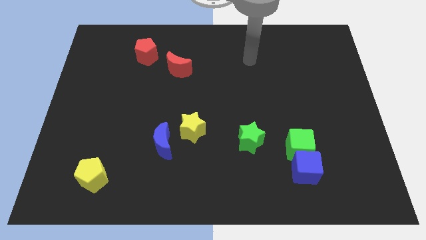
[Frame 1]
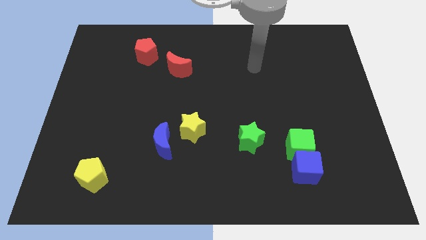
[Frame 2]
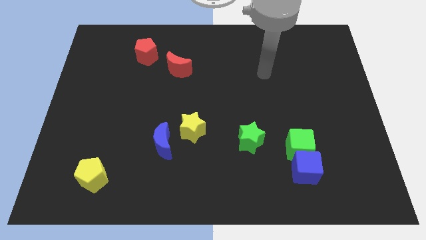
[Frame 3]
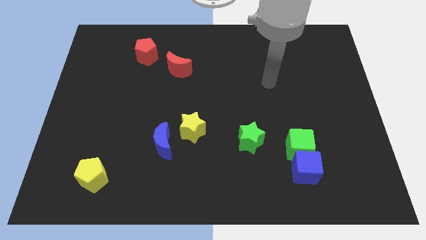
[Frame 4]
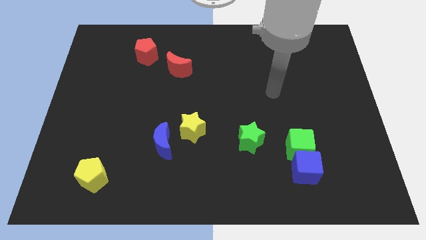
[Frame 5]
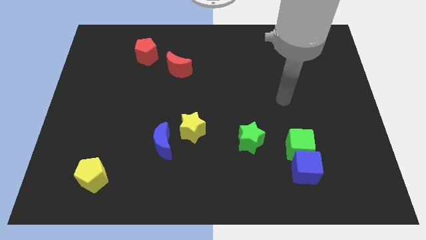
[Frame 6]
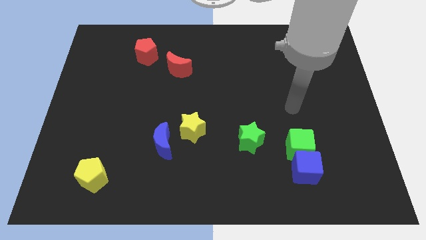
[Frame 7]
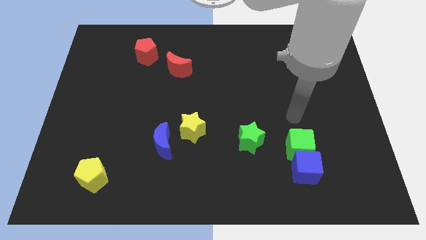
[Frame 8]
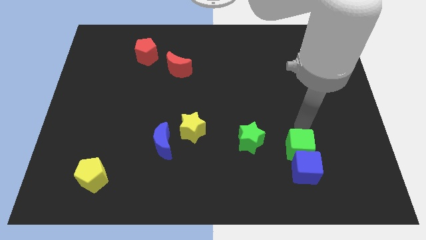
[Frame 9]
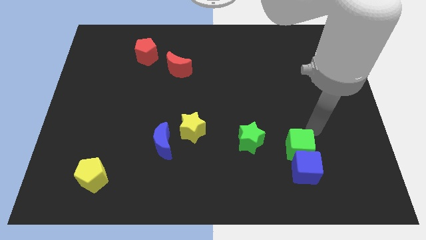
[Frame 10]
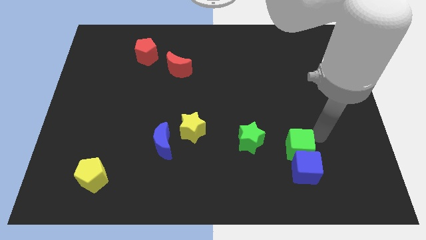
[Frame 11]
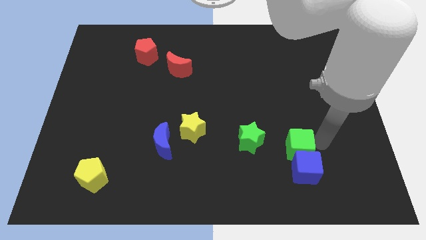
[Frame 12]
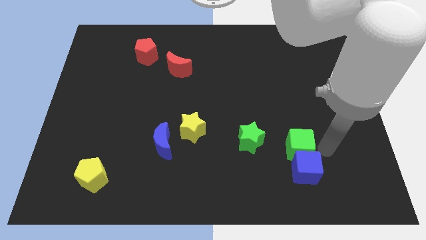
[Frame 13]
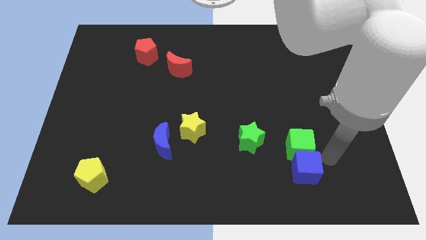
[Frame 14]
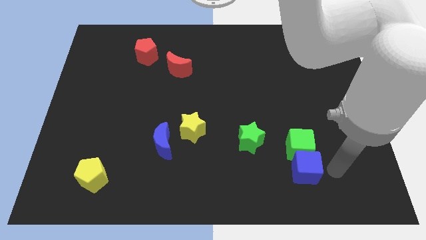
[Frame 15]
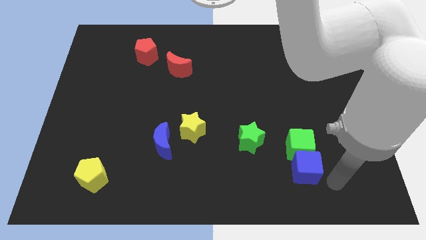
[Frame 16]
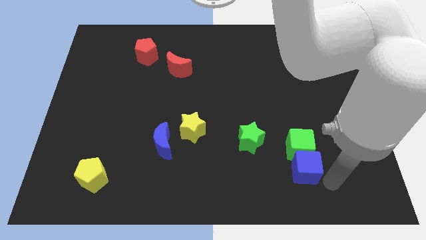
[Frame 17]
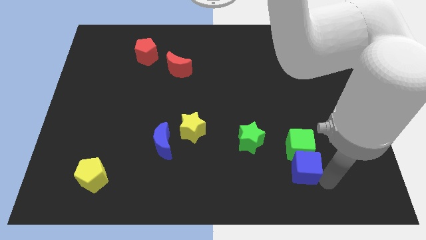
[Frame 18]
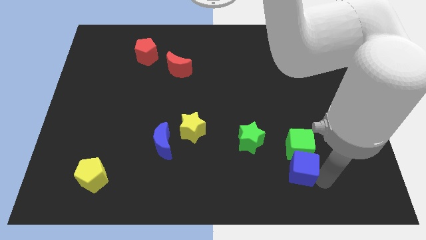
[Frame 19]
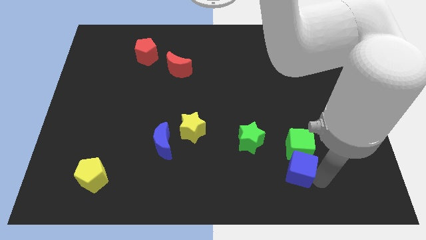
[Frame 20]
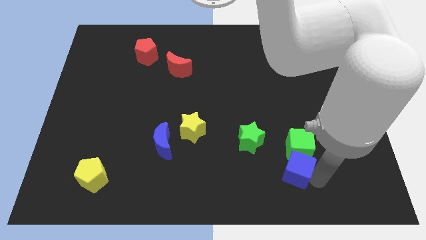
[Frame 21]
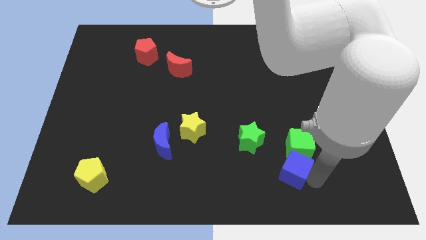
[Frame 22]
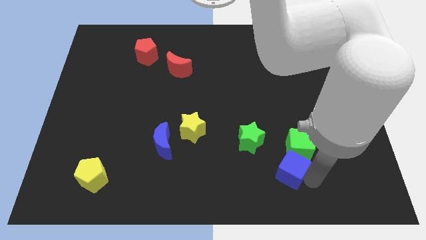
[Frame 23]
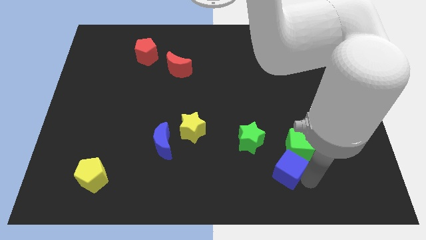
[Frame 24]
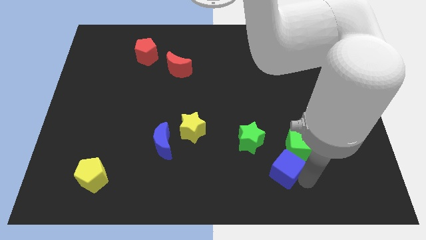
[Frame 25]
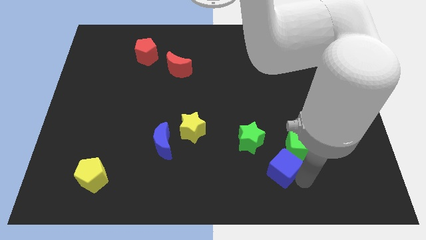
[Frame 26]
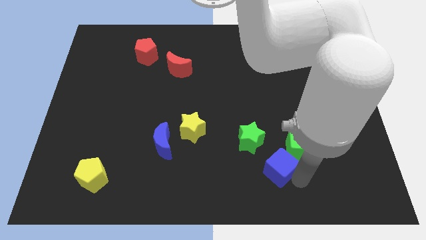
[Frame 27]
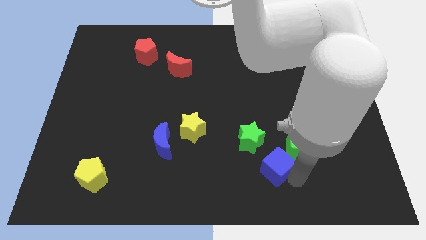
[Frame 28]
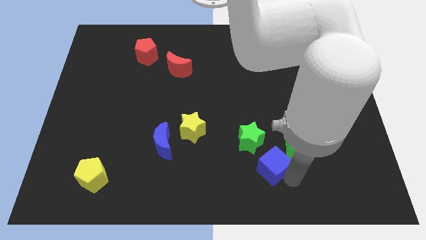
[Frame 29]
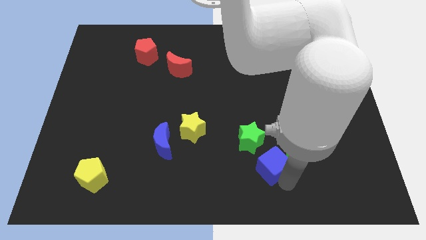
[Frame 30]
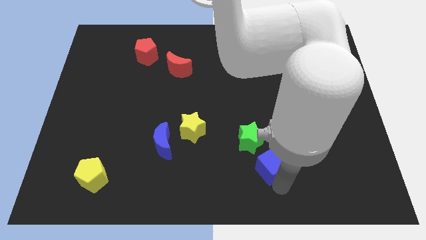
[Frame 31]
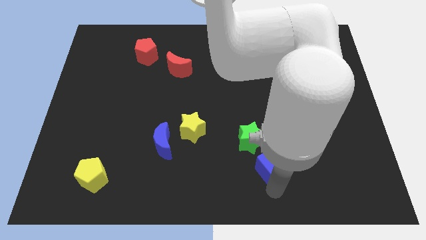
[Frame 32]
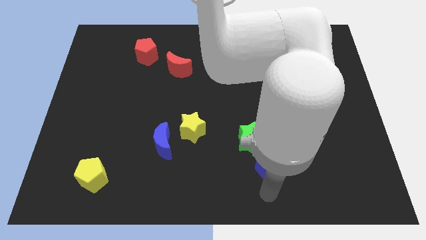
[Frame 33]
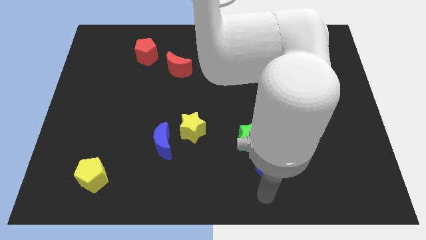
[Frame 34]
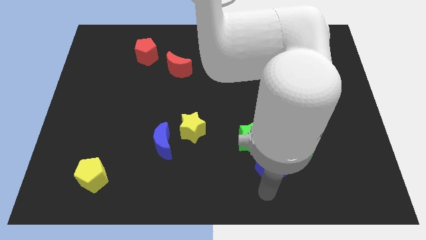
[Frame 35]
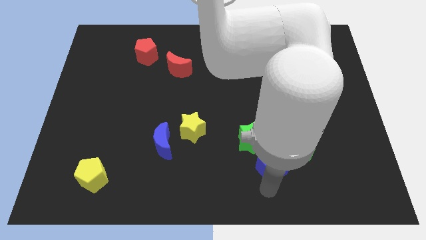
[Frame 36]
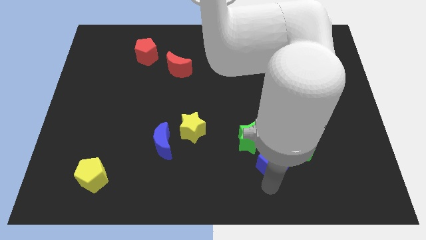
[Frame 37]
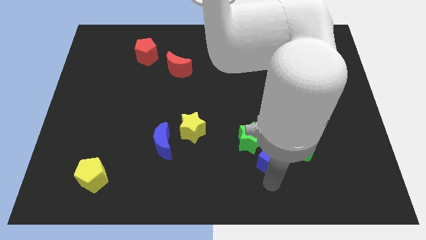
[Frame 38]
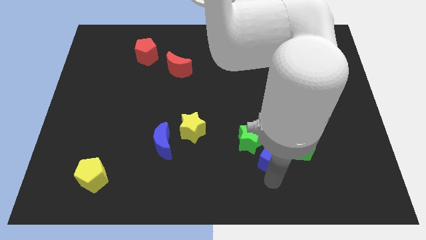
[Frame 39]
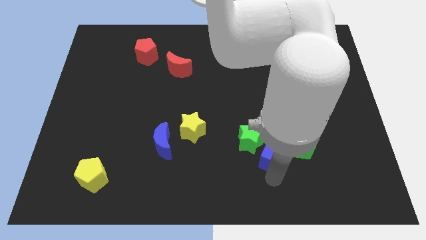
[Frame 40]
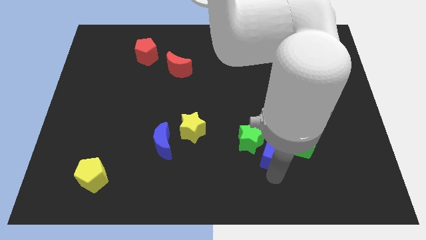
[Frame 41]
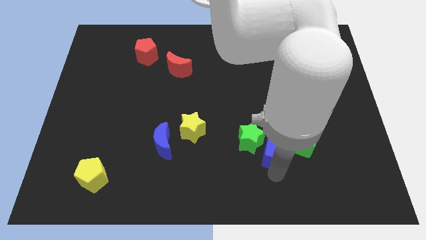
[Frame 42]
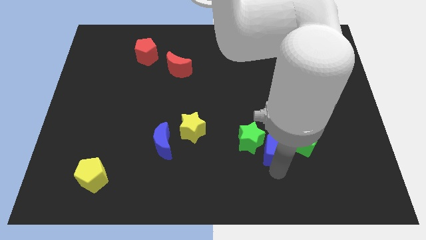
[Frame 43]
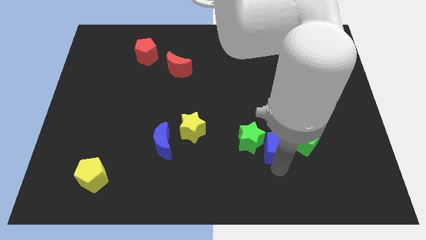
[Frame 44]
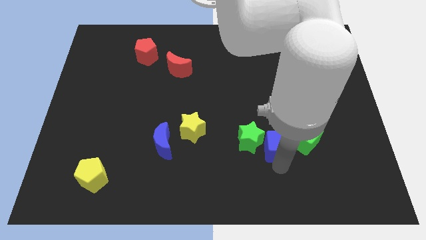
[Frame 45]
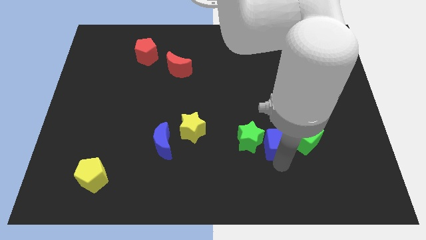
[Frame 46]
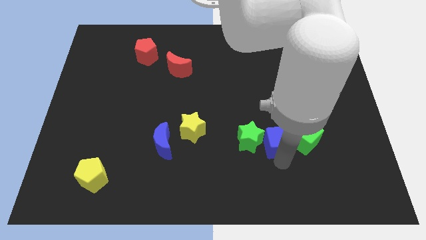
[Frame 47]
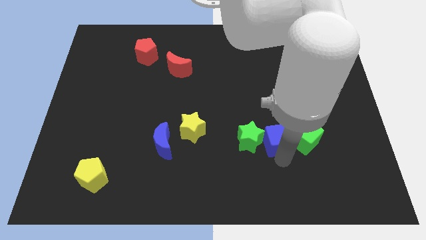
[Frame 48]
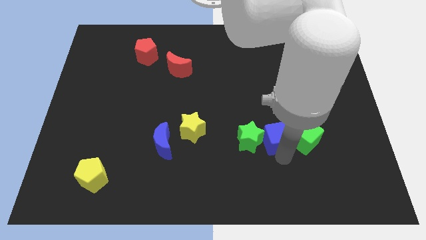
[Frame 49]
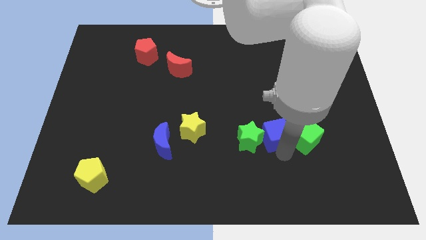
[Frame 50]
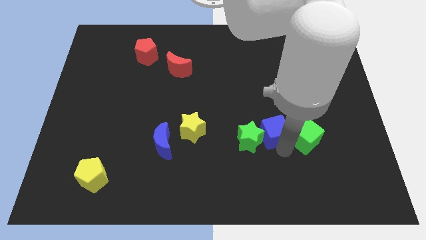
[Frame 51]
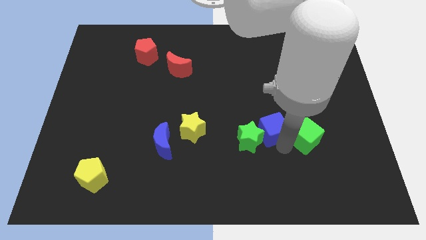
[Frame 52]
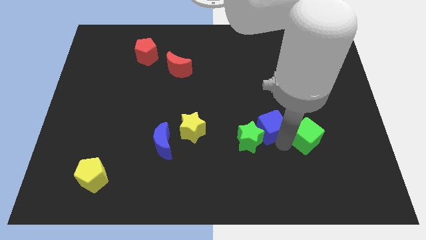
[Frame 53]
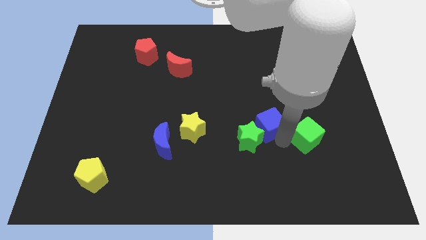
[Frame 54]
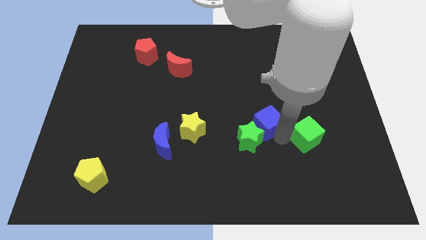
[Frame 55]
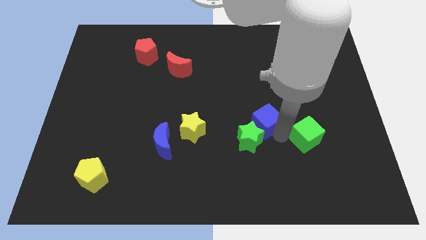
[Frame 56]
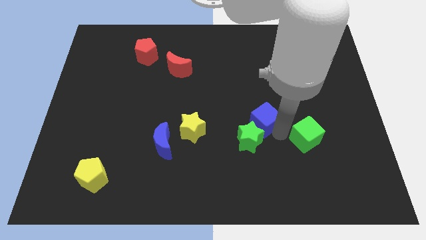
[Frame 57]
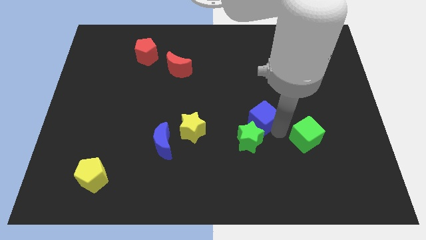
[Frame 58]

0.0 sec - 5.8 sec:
slide the blue cube to the middle
